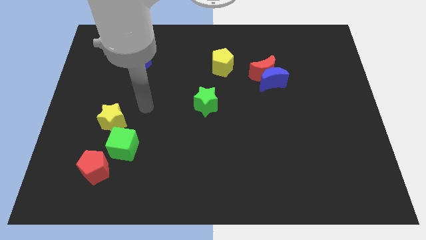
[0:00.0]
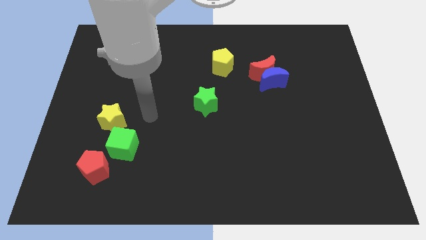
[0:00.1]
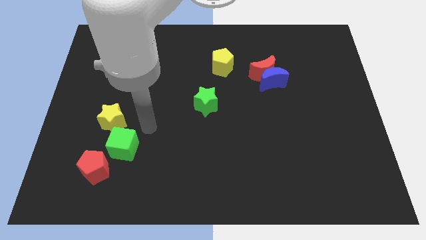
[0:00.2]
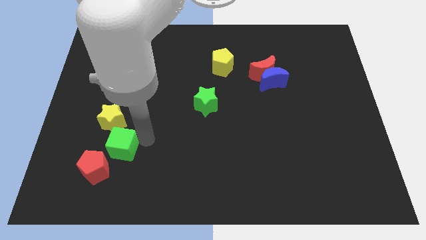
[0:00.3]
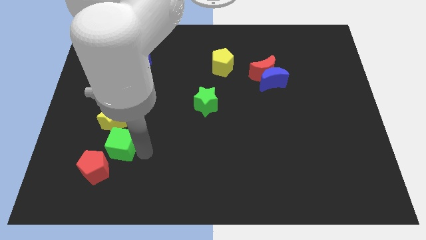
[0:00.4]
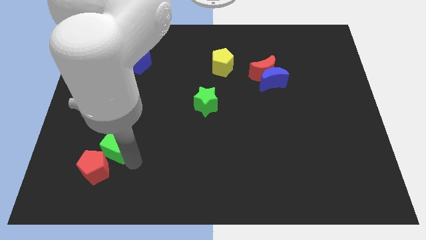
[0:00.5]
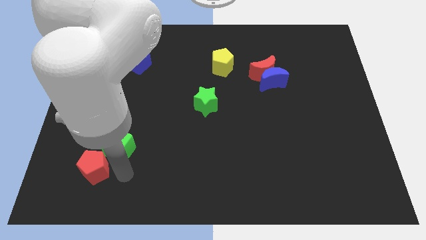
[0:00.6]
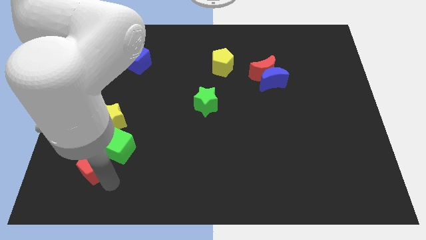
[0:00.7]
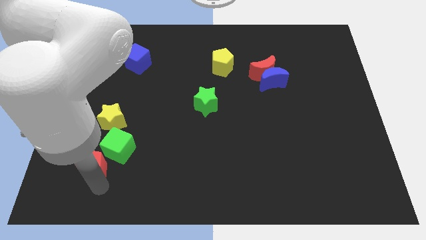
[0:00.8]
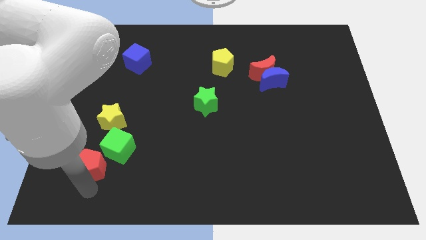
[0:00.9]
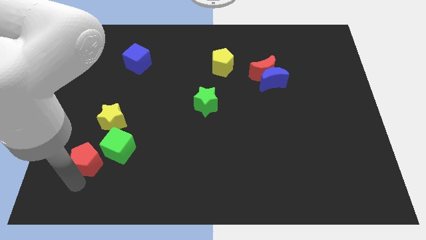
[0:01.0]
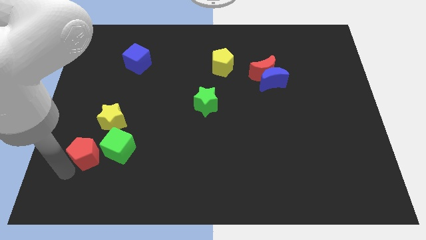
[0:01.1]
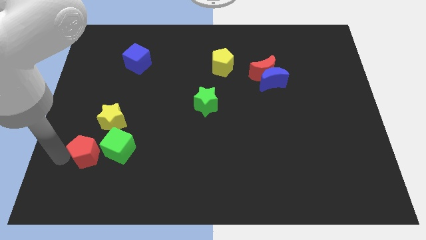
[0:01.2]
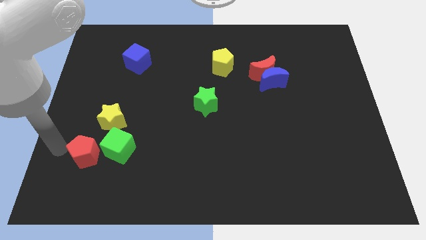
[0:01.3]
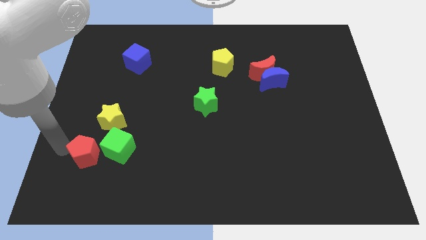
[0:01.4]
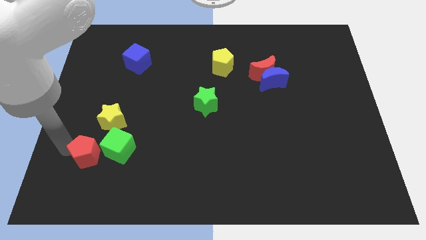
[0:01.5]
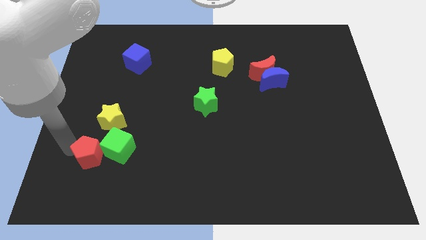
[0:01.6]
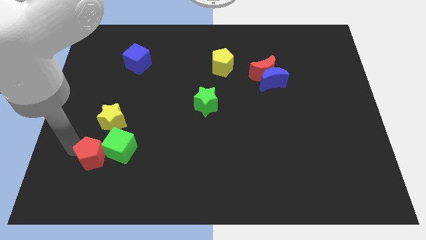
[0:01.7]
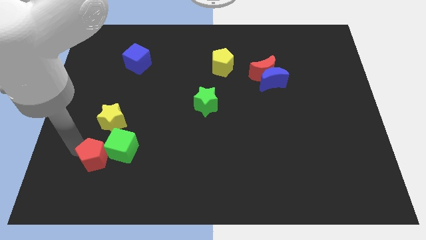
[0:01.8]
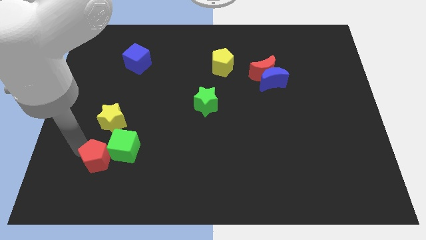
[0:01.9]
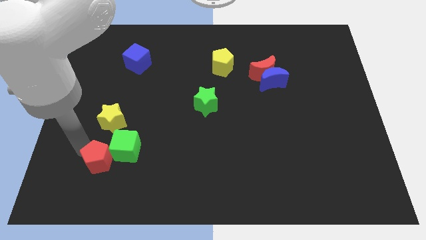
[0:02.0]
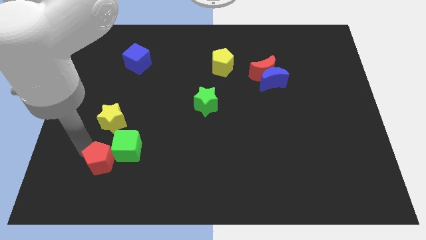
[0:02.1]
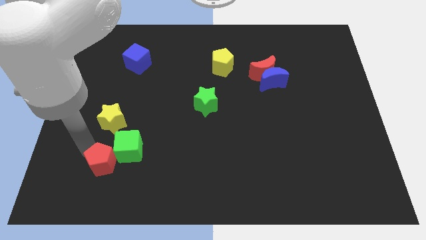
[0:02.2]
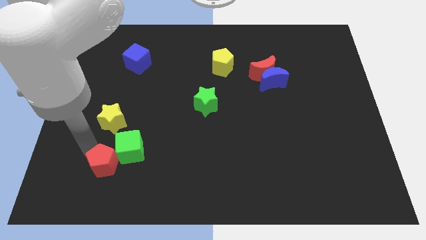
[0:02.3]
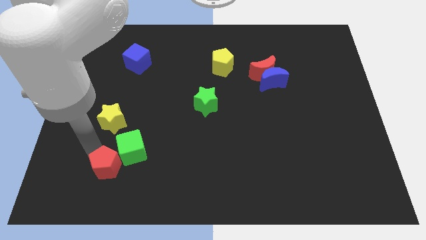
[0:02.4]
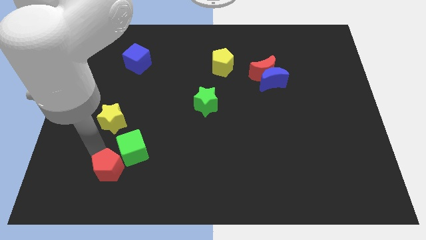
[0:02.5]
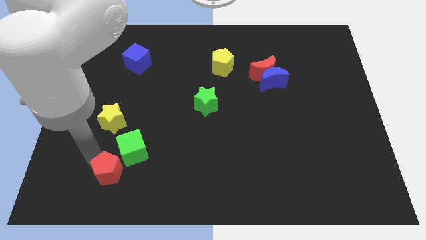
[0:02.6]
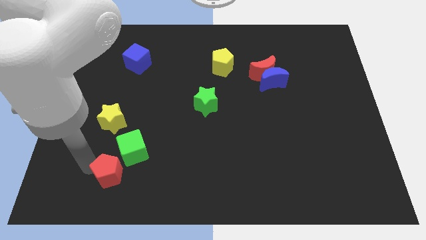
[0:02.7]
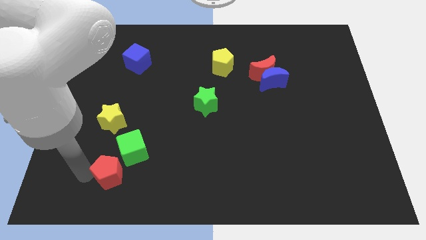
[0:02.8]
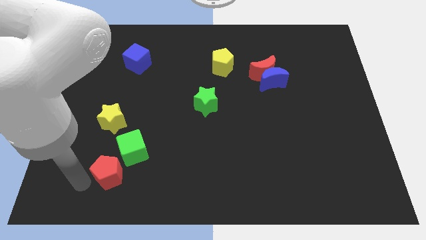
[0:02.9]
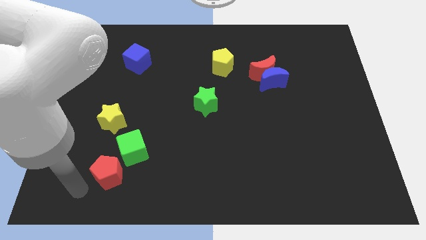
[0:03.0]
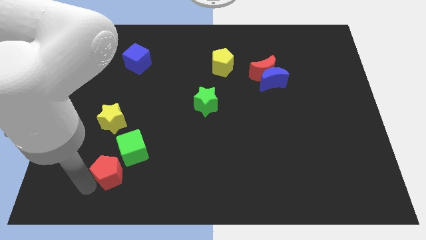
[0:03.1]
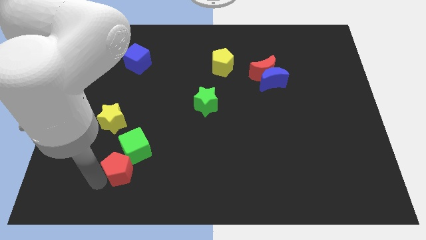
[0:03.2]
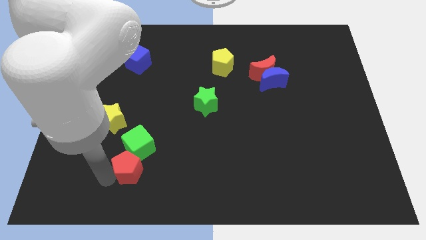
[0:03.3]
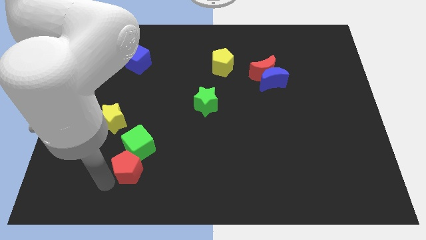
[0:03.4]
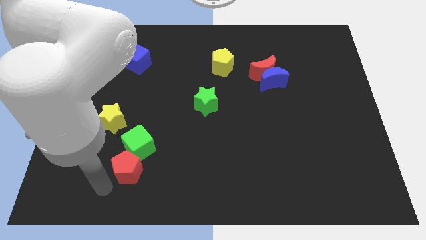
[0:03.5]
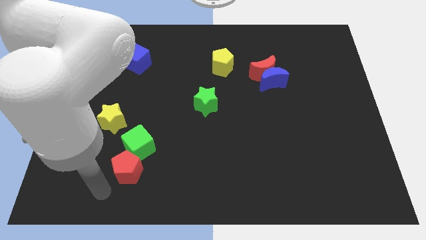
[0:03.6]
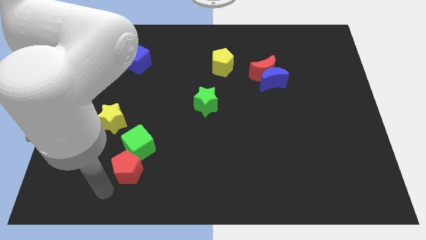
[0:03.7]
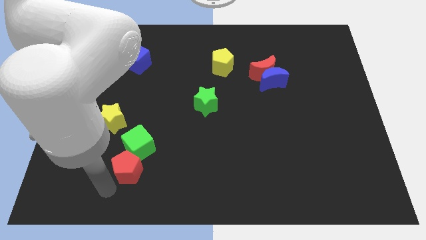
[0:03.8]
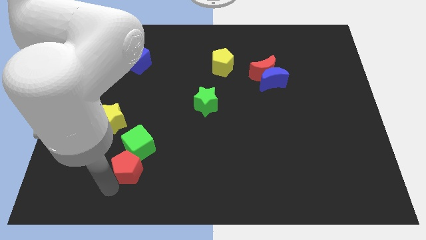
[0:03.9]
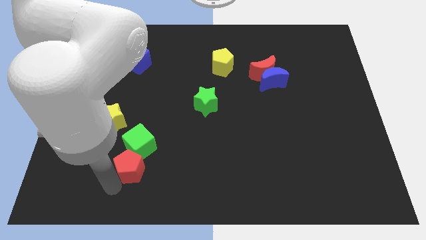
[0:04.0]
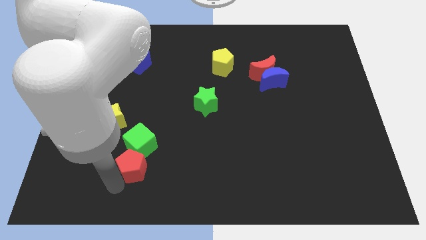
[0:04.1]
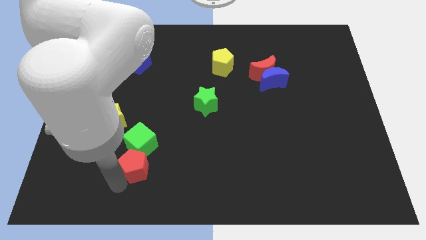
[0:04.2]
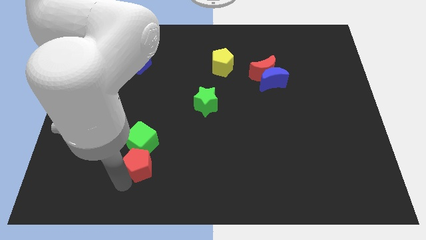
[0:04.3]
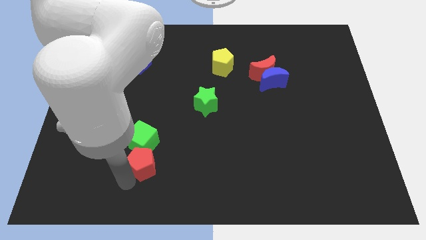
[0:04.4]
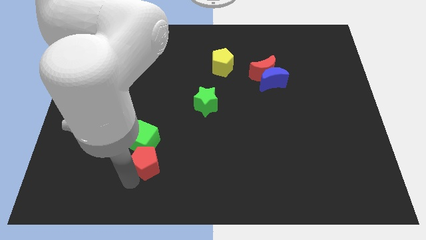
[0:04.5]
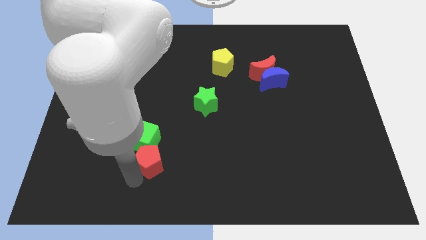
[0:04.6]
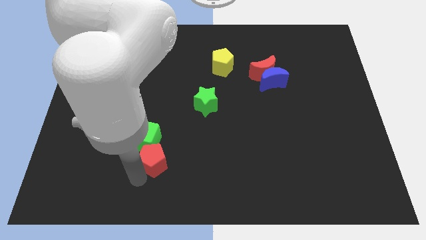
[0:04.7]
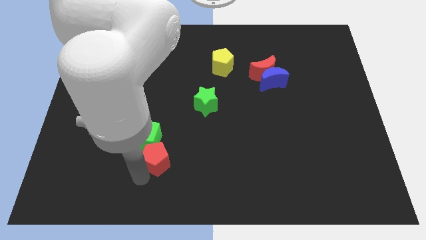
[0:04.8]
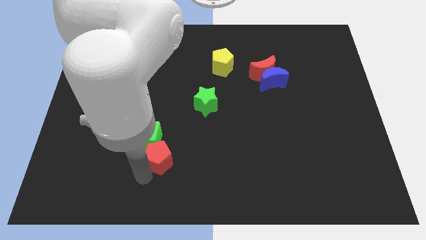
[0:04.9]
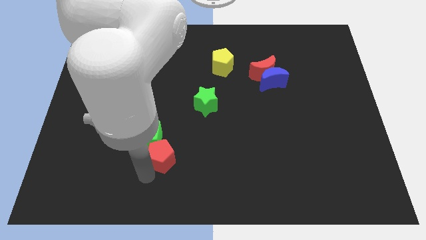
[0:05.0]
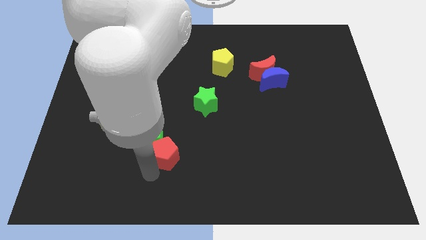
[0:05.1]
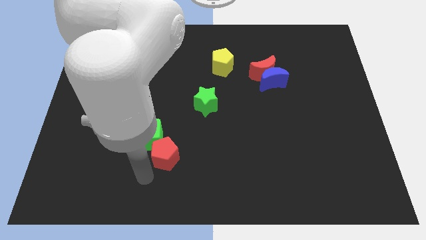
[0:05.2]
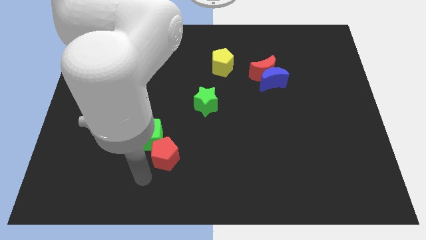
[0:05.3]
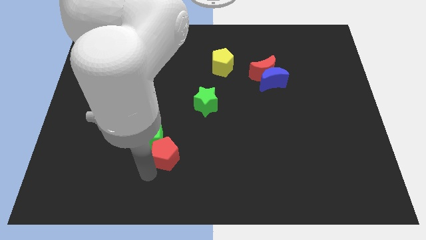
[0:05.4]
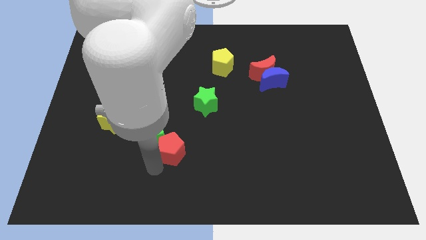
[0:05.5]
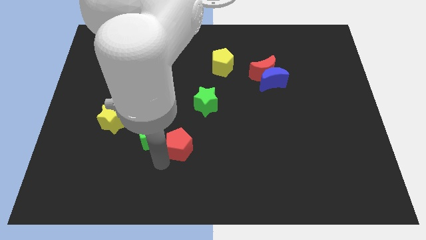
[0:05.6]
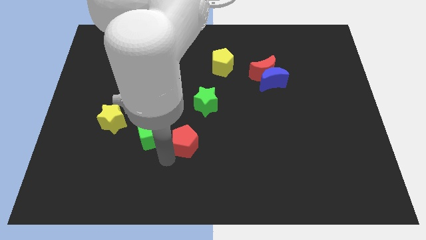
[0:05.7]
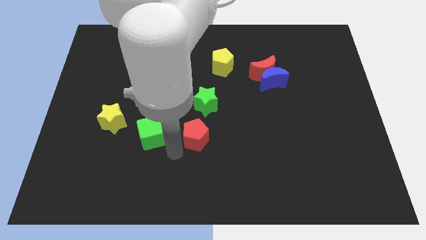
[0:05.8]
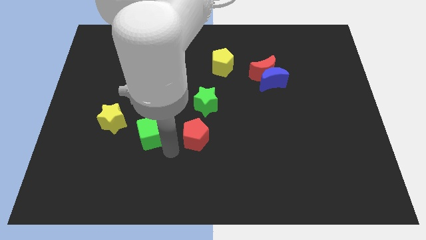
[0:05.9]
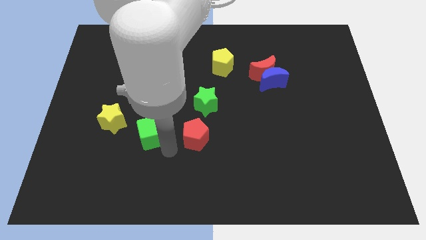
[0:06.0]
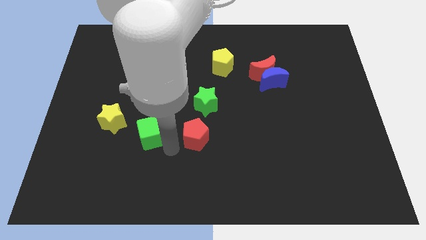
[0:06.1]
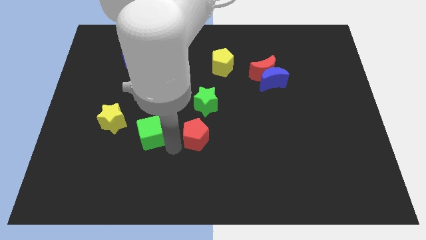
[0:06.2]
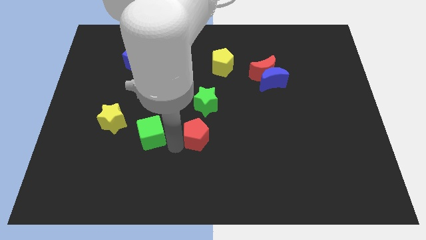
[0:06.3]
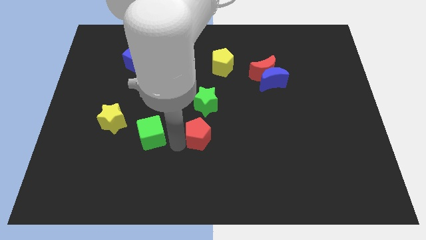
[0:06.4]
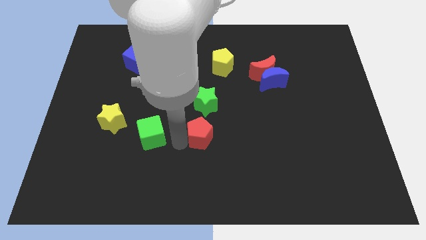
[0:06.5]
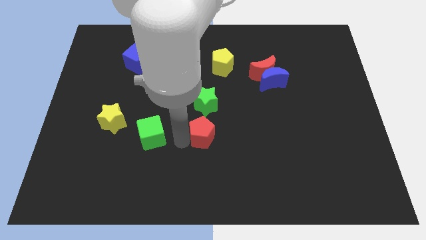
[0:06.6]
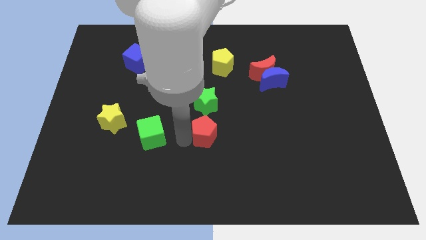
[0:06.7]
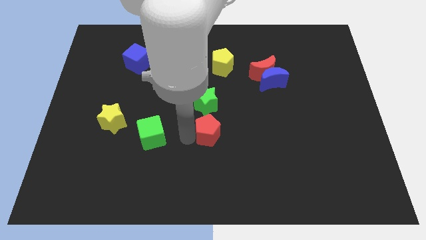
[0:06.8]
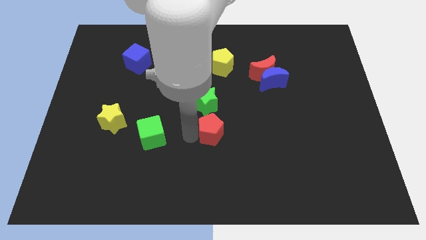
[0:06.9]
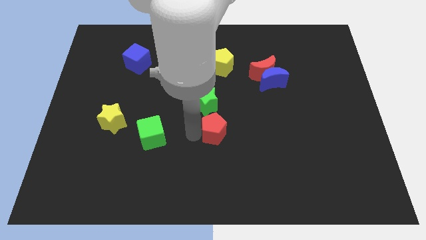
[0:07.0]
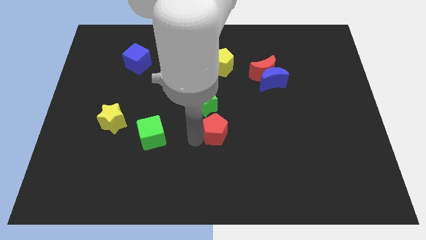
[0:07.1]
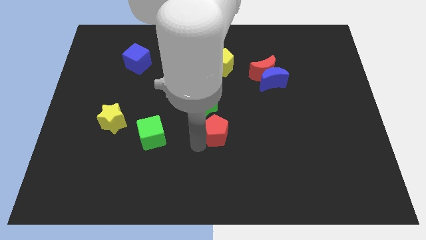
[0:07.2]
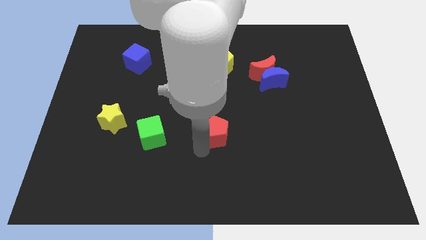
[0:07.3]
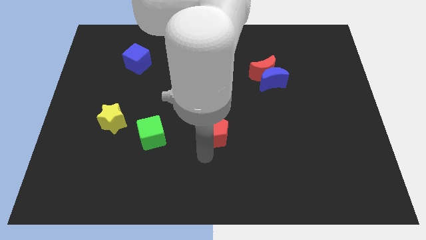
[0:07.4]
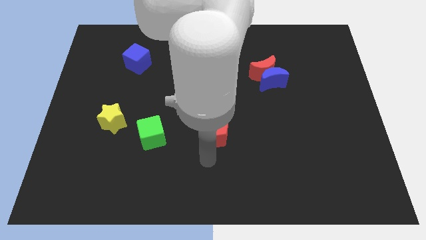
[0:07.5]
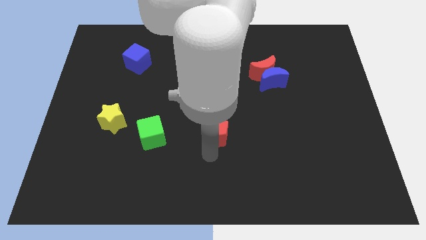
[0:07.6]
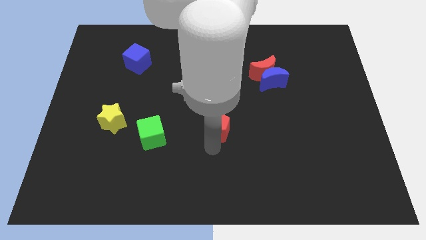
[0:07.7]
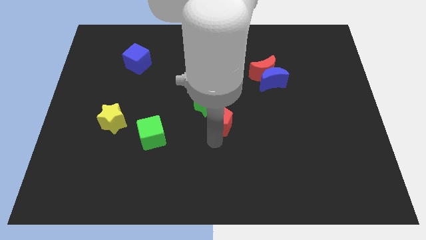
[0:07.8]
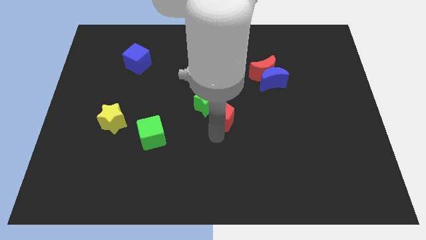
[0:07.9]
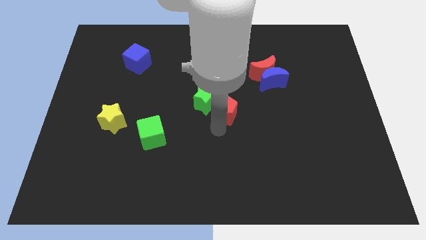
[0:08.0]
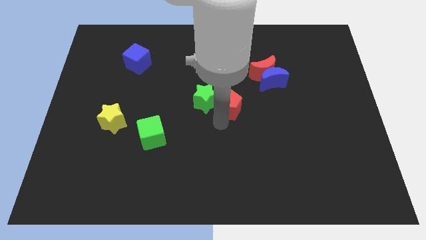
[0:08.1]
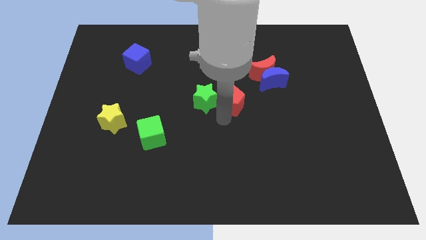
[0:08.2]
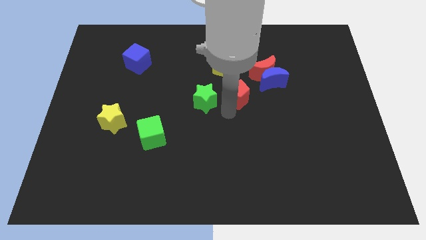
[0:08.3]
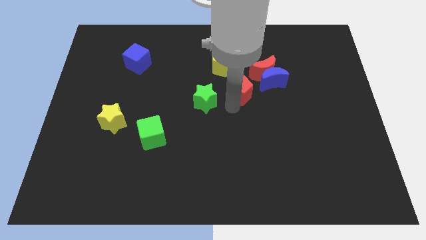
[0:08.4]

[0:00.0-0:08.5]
slide the red pentagon to the bottom right of the yellow pentagon
